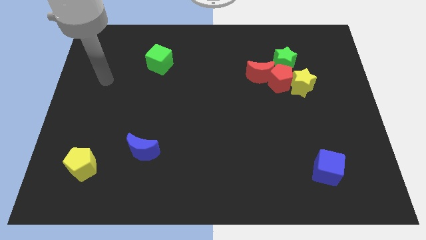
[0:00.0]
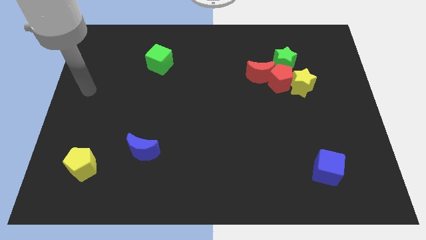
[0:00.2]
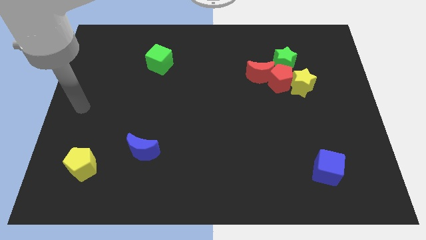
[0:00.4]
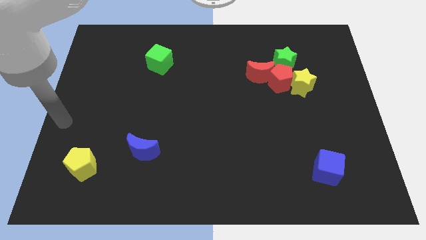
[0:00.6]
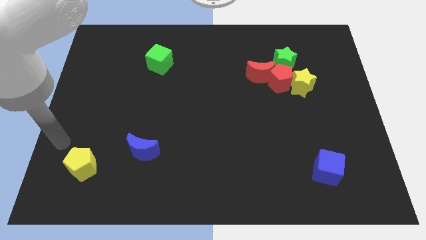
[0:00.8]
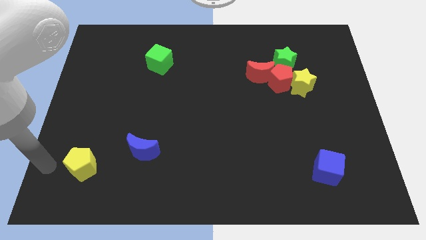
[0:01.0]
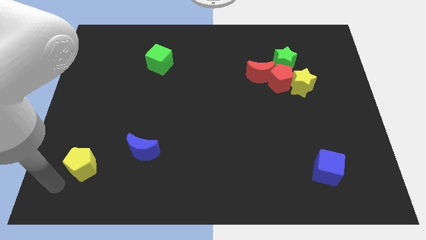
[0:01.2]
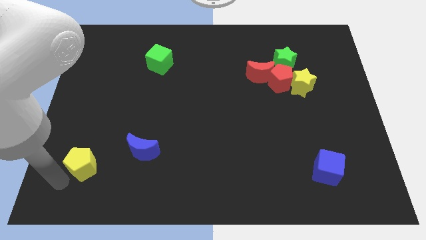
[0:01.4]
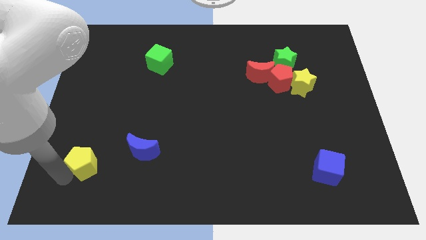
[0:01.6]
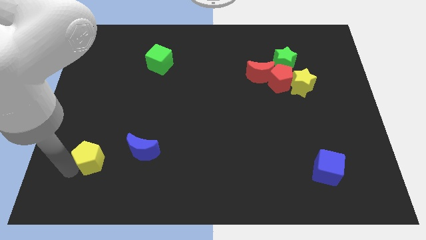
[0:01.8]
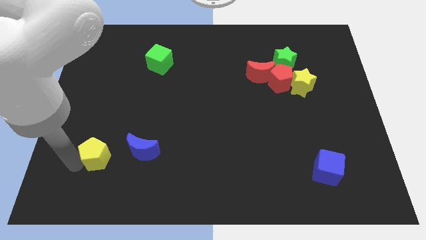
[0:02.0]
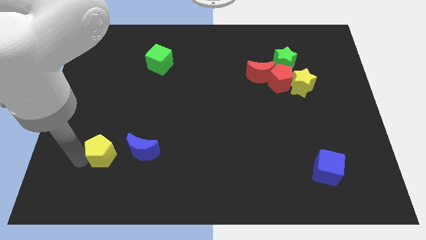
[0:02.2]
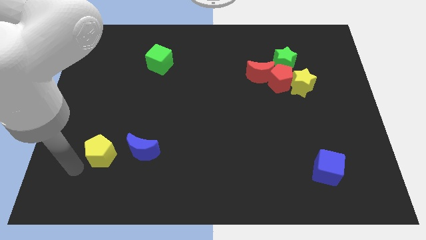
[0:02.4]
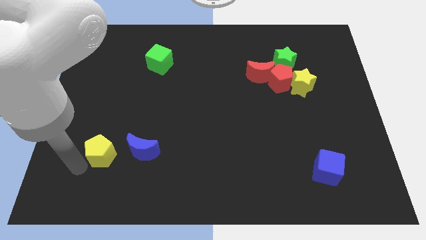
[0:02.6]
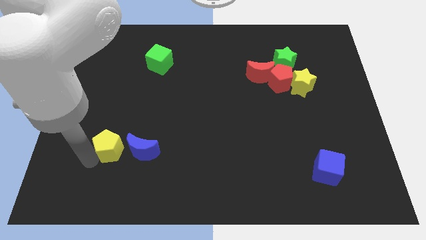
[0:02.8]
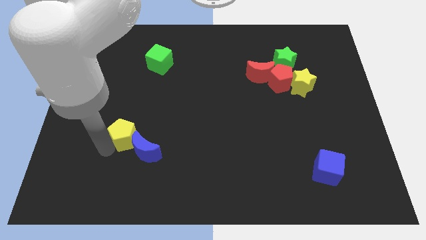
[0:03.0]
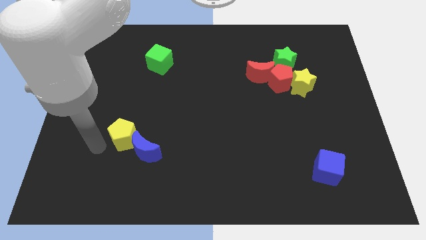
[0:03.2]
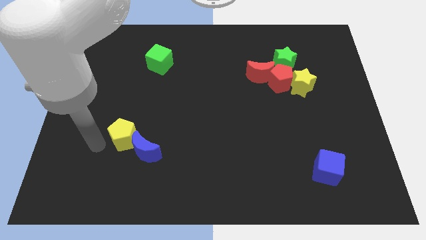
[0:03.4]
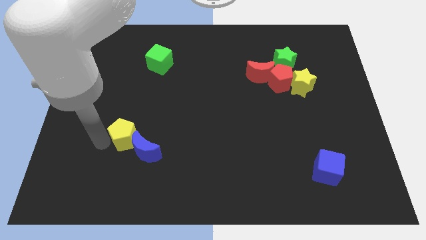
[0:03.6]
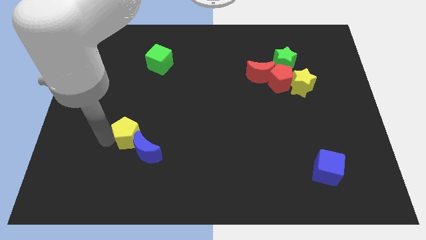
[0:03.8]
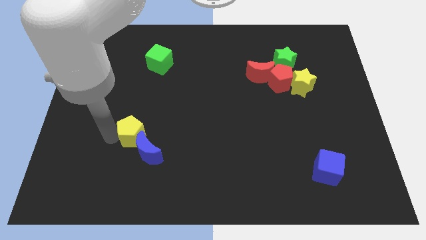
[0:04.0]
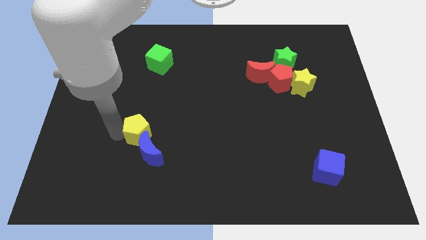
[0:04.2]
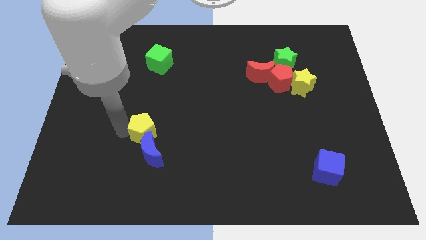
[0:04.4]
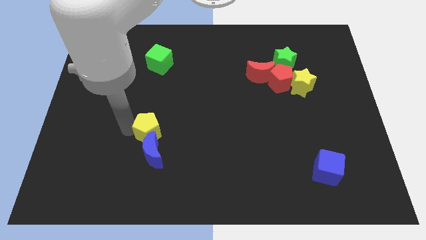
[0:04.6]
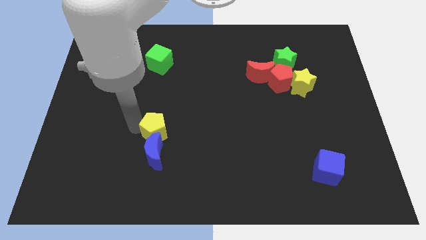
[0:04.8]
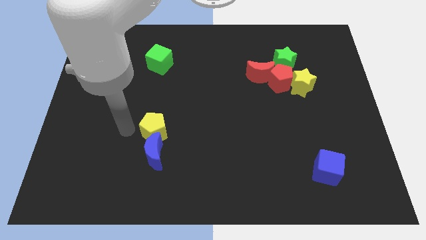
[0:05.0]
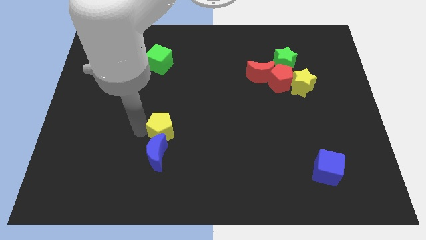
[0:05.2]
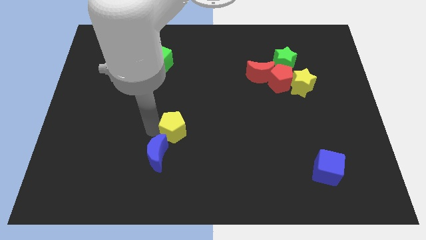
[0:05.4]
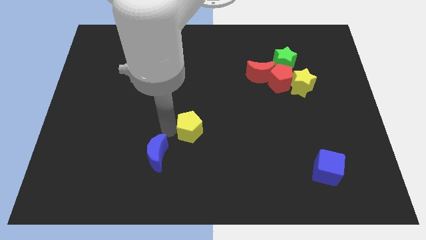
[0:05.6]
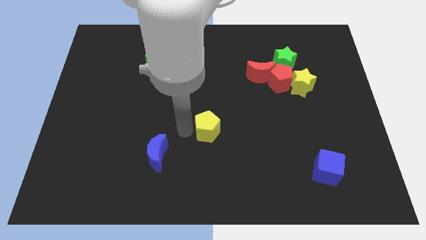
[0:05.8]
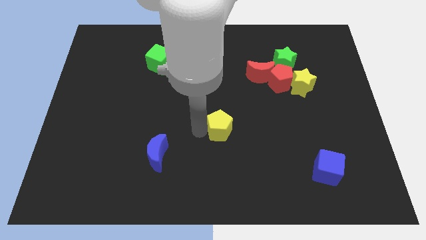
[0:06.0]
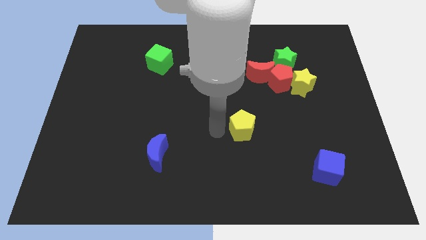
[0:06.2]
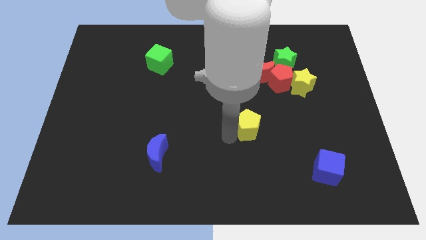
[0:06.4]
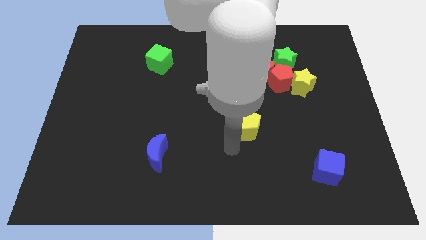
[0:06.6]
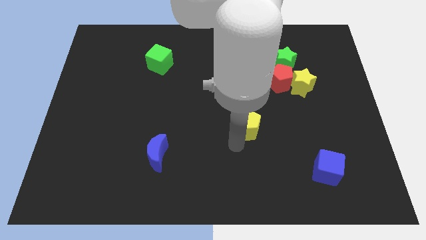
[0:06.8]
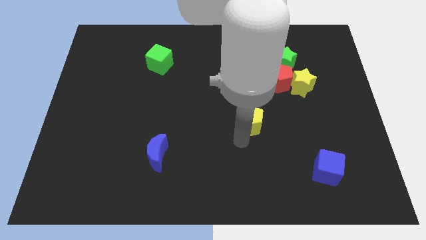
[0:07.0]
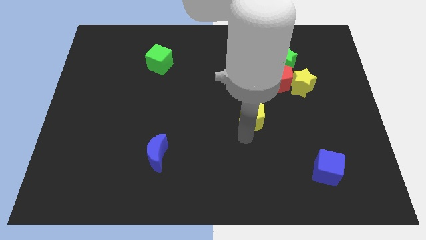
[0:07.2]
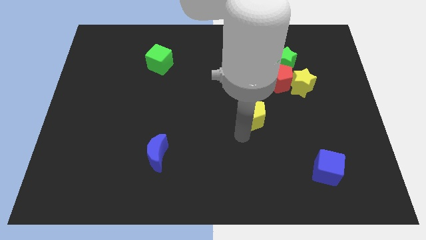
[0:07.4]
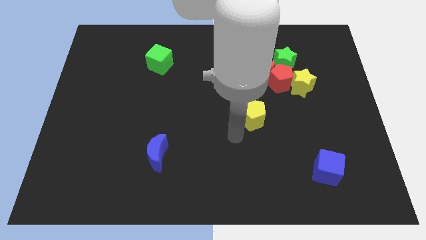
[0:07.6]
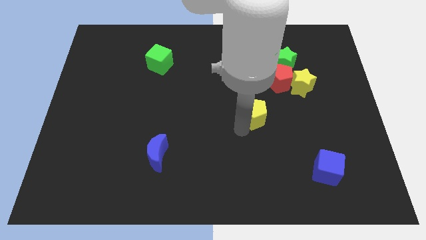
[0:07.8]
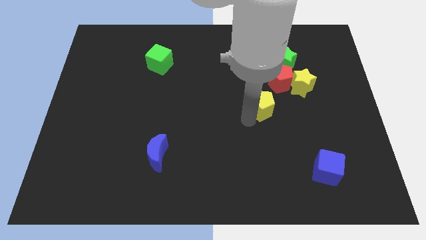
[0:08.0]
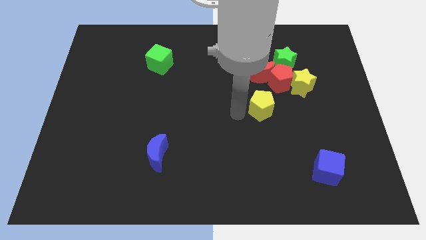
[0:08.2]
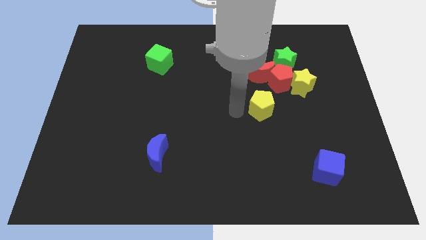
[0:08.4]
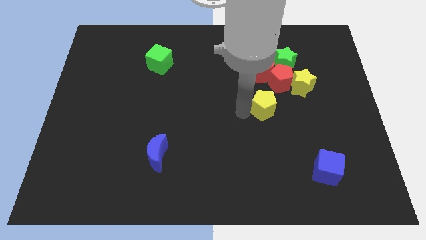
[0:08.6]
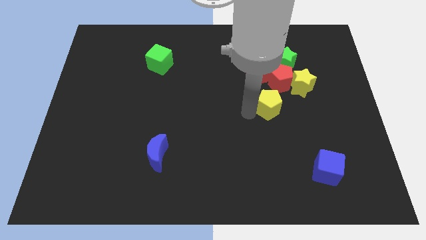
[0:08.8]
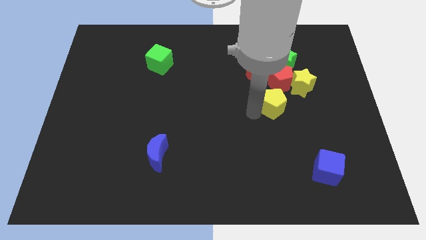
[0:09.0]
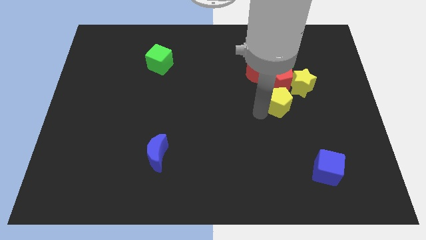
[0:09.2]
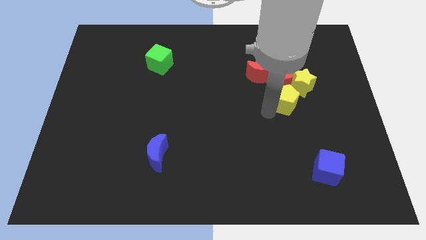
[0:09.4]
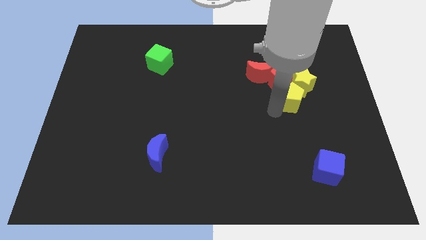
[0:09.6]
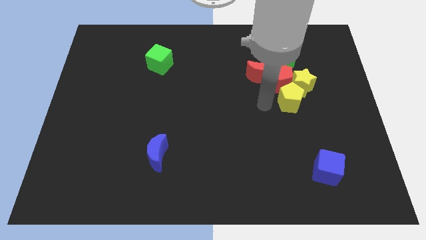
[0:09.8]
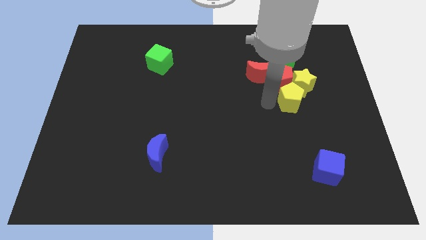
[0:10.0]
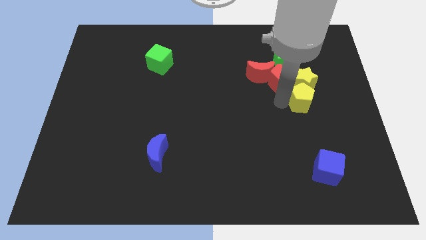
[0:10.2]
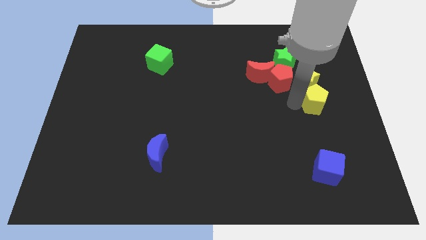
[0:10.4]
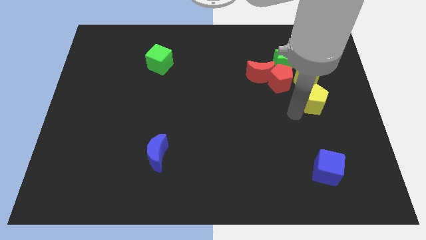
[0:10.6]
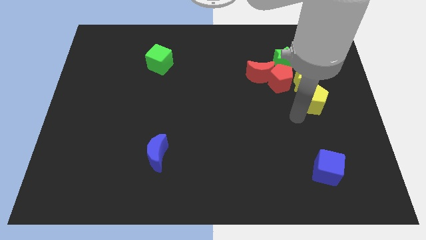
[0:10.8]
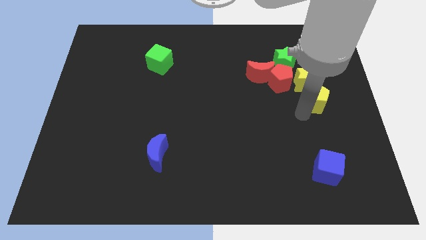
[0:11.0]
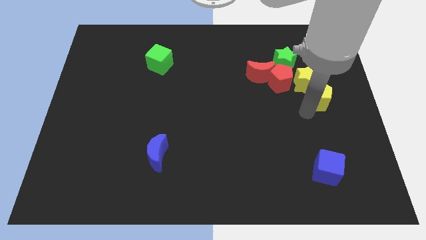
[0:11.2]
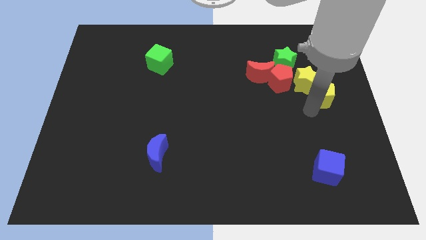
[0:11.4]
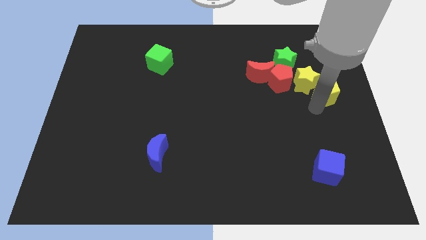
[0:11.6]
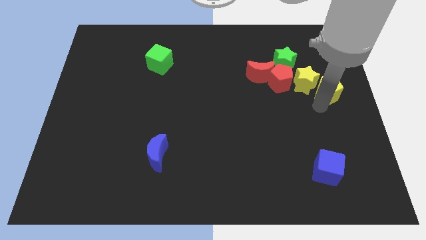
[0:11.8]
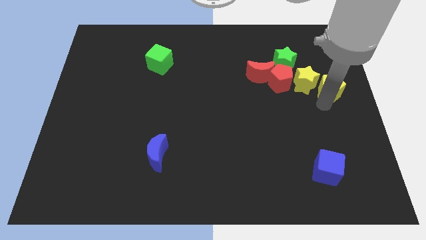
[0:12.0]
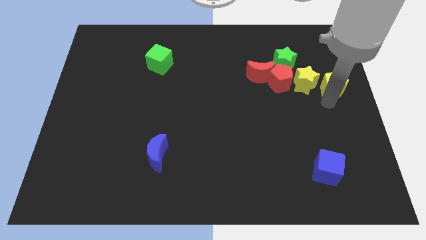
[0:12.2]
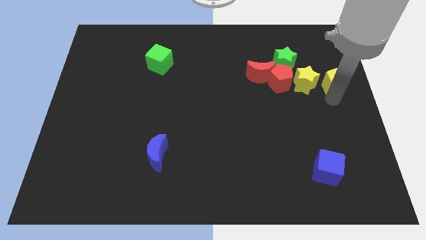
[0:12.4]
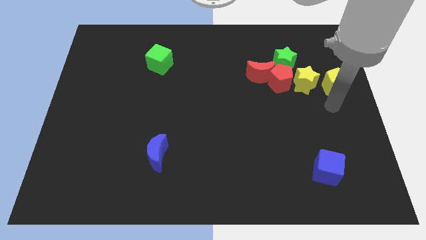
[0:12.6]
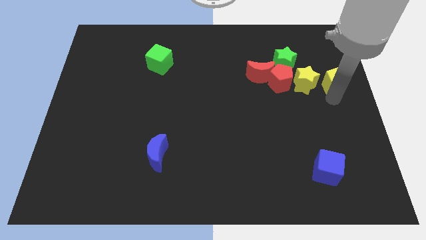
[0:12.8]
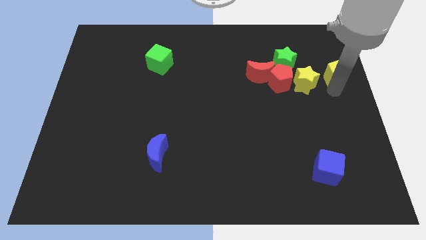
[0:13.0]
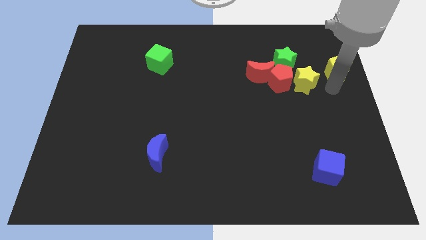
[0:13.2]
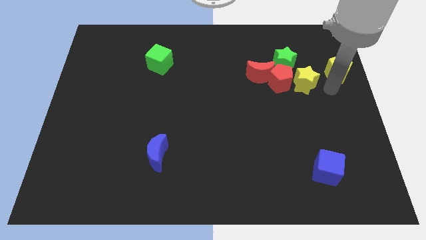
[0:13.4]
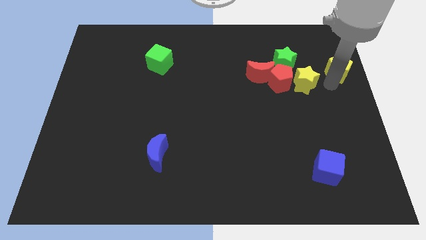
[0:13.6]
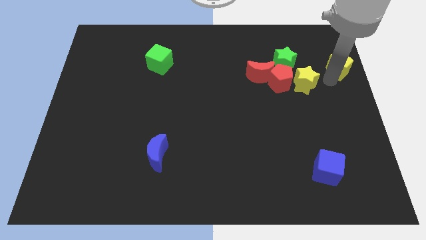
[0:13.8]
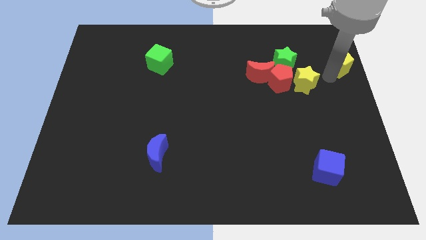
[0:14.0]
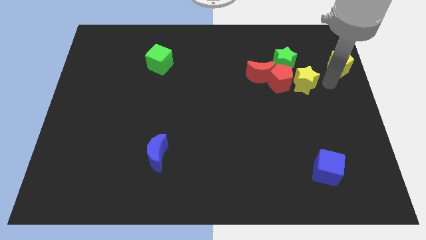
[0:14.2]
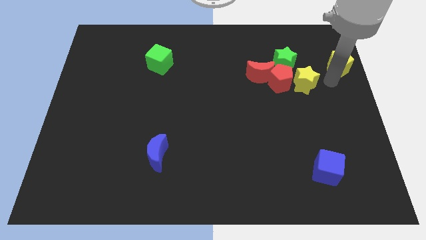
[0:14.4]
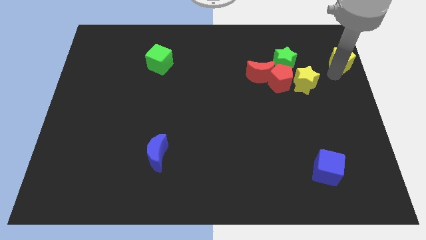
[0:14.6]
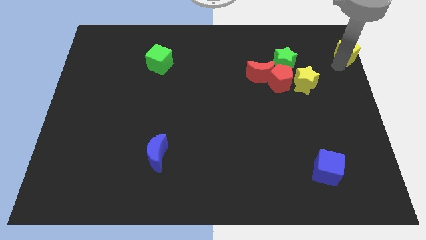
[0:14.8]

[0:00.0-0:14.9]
move the yellow pentagon to the top right corner
